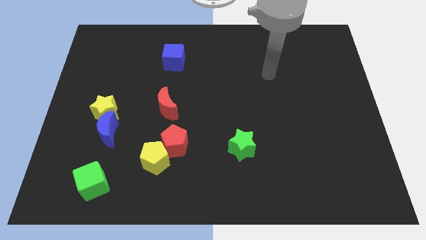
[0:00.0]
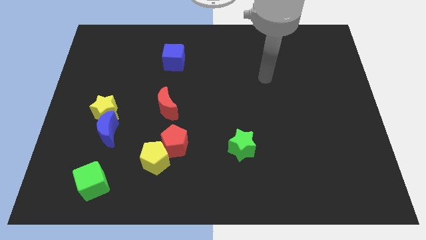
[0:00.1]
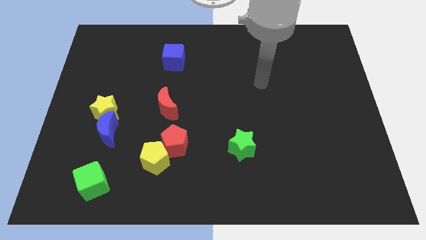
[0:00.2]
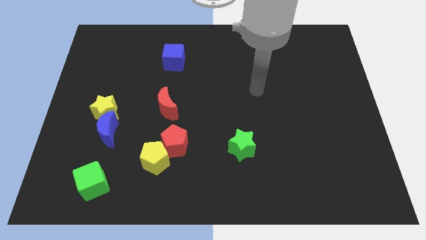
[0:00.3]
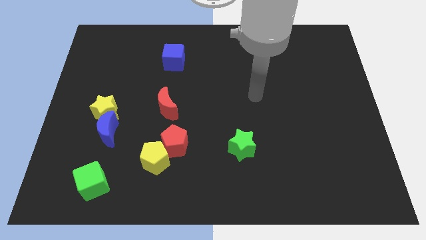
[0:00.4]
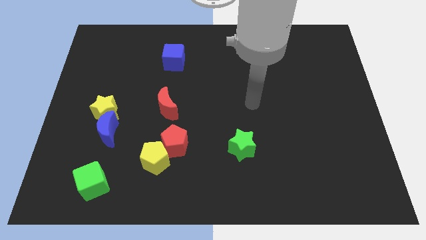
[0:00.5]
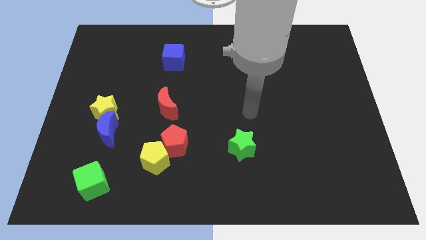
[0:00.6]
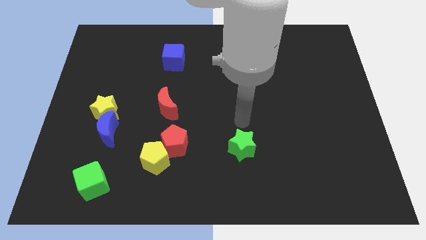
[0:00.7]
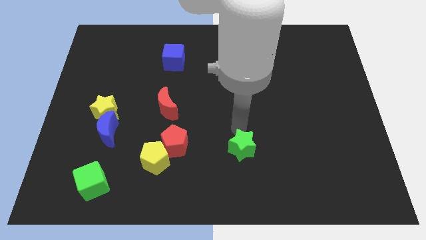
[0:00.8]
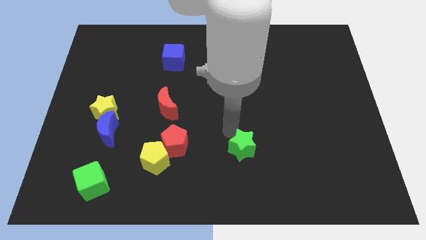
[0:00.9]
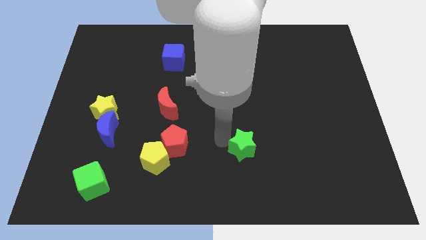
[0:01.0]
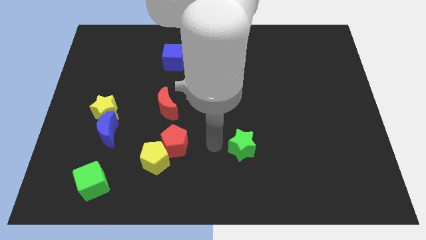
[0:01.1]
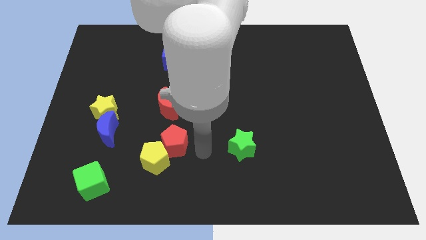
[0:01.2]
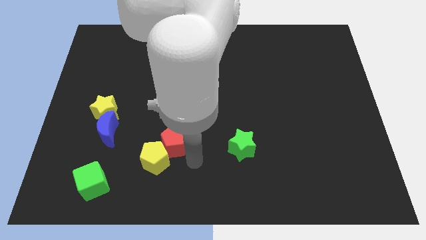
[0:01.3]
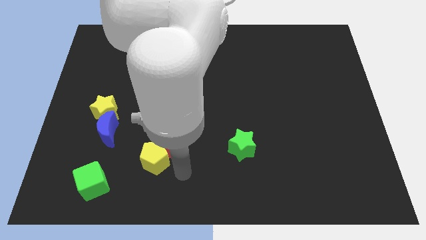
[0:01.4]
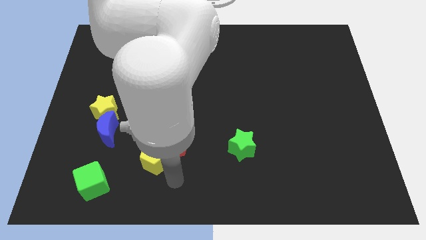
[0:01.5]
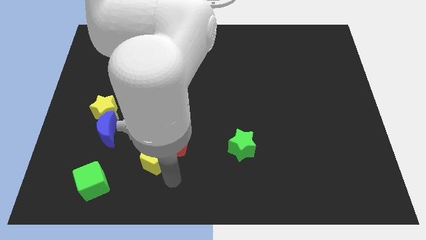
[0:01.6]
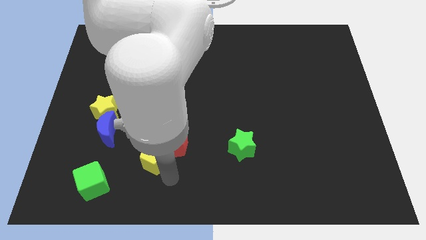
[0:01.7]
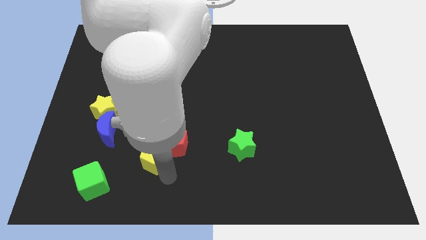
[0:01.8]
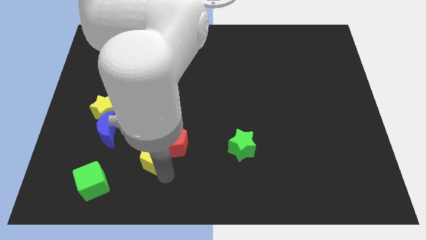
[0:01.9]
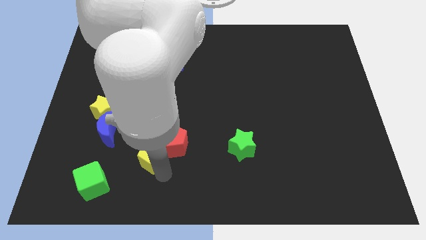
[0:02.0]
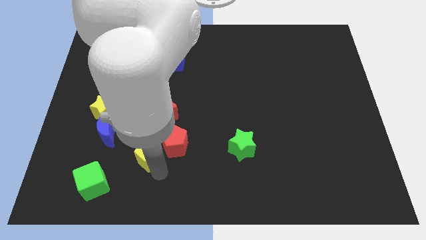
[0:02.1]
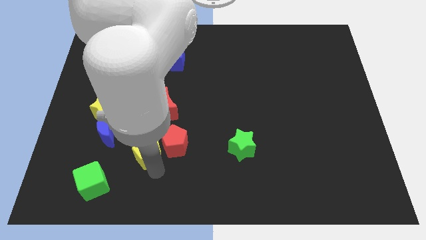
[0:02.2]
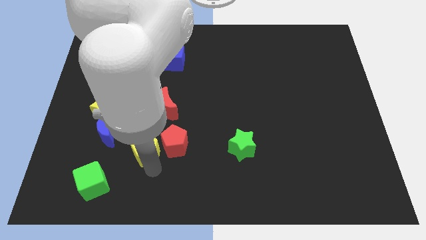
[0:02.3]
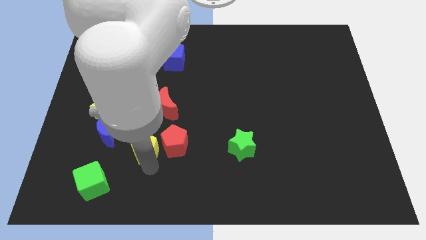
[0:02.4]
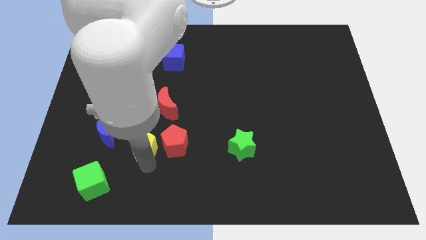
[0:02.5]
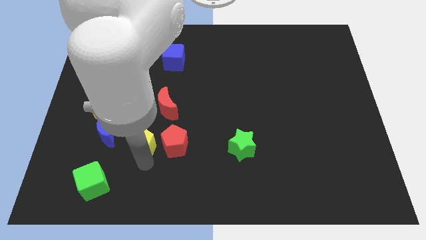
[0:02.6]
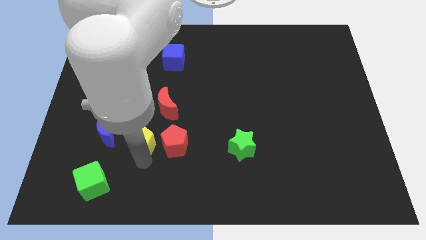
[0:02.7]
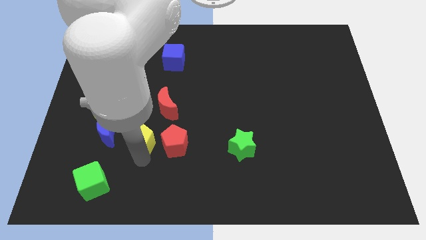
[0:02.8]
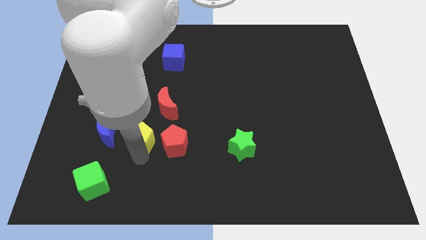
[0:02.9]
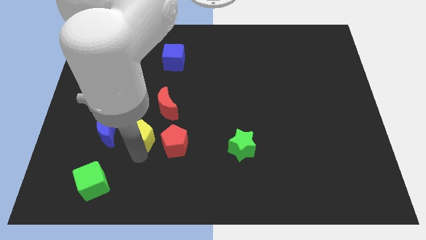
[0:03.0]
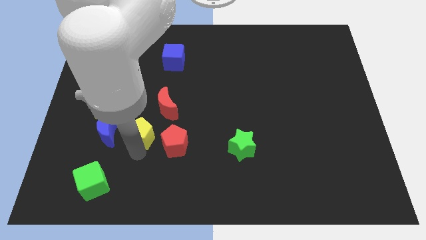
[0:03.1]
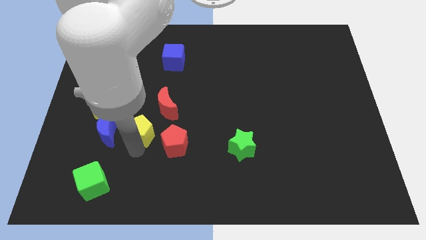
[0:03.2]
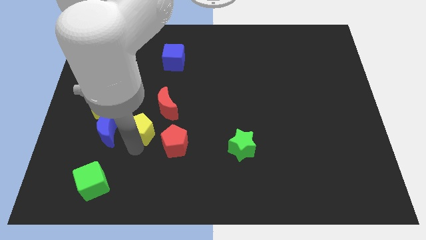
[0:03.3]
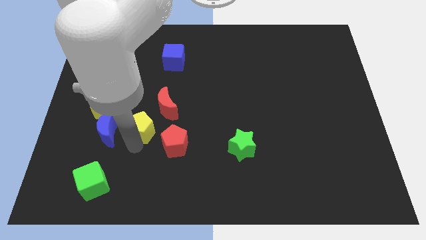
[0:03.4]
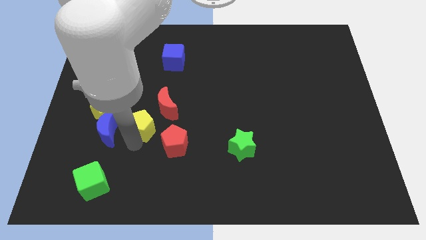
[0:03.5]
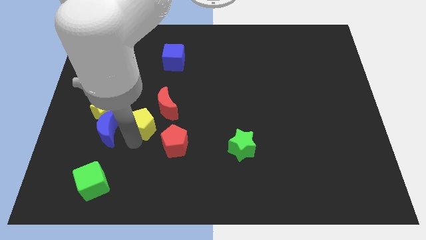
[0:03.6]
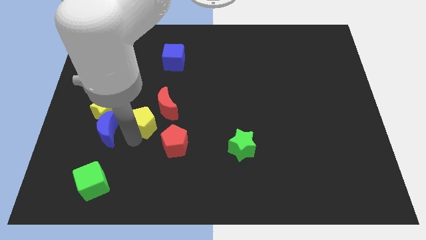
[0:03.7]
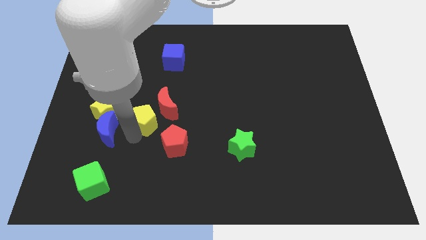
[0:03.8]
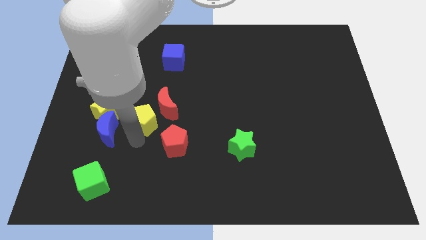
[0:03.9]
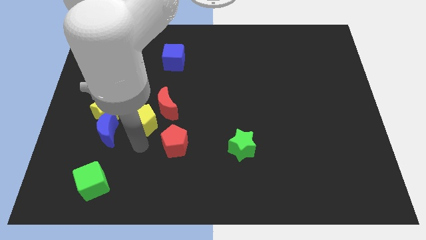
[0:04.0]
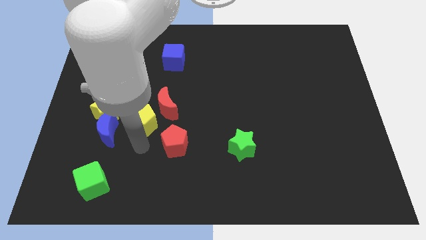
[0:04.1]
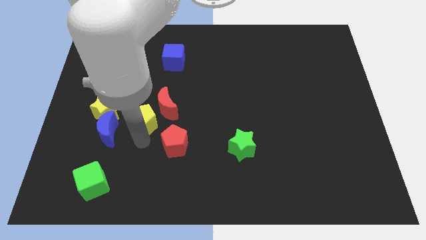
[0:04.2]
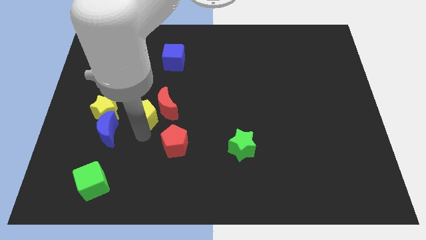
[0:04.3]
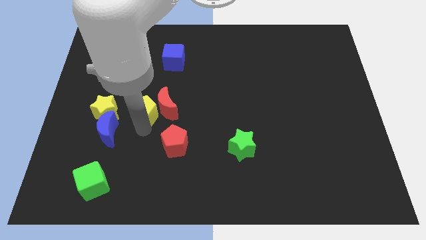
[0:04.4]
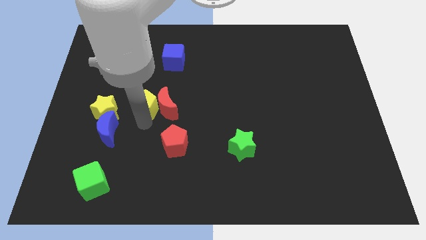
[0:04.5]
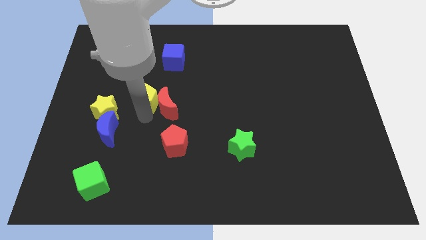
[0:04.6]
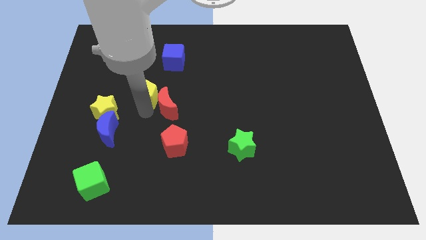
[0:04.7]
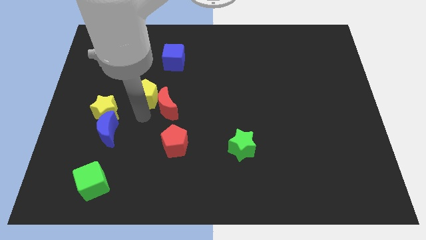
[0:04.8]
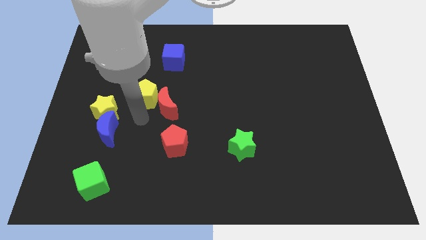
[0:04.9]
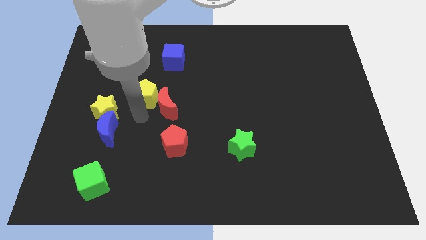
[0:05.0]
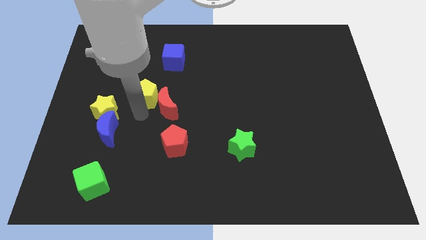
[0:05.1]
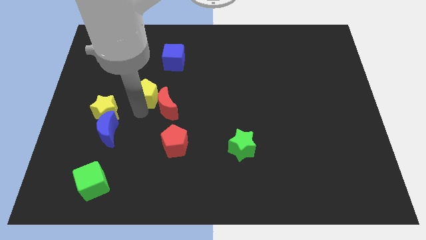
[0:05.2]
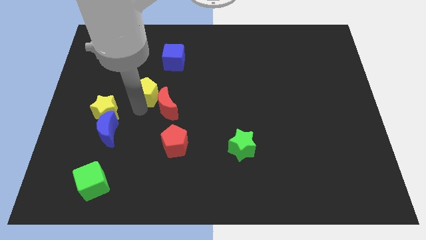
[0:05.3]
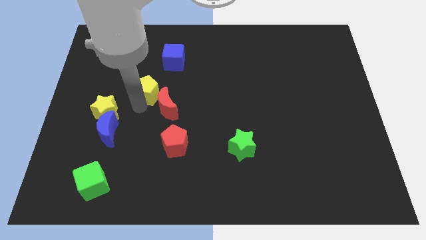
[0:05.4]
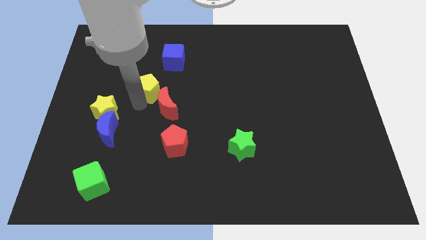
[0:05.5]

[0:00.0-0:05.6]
push the yellow pentagon to the bottom left of the blue cube
